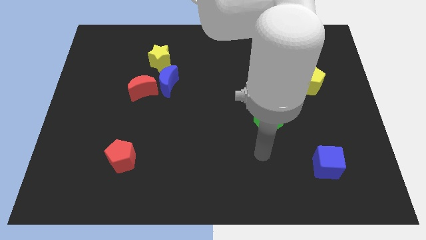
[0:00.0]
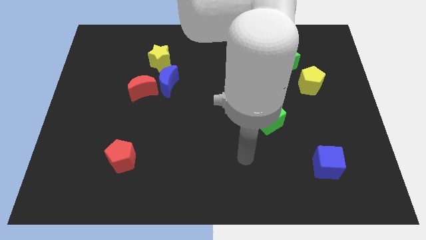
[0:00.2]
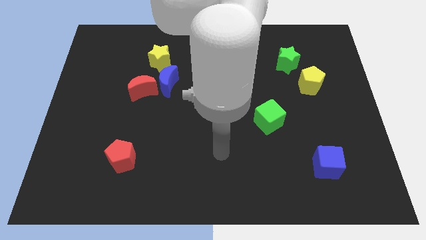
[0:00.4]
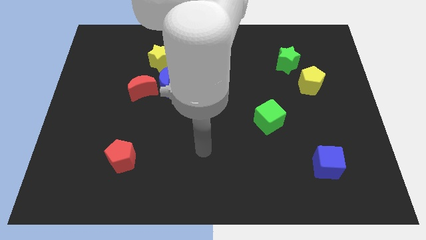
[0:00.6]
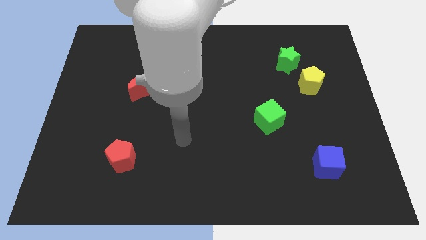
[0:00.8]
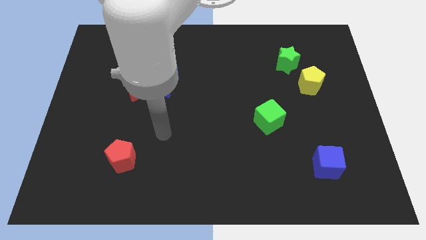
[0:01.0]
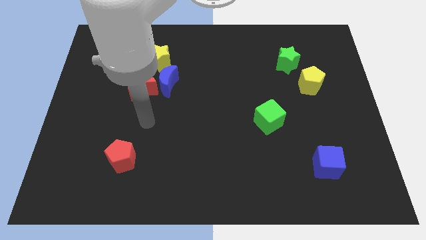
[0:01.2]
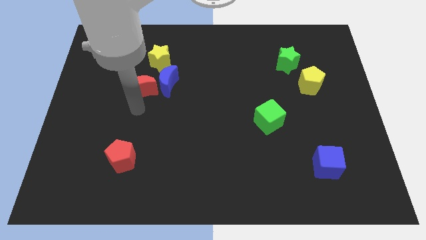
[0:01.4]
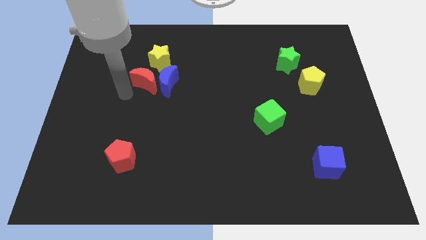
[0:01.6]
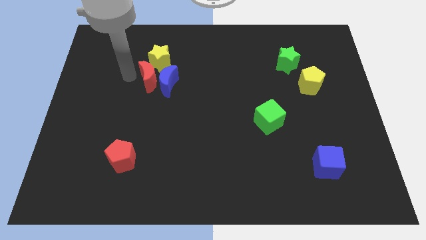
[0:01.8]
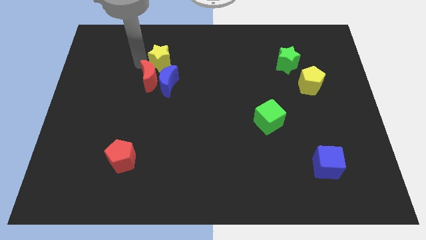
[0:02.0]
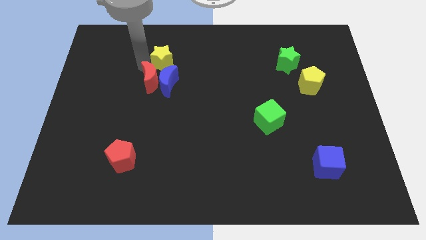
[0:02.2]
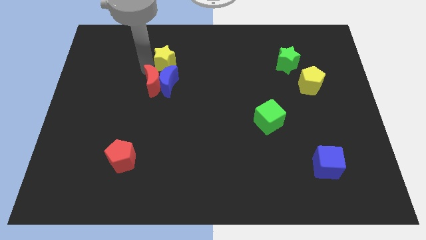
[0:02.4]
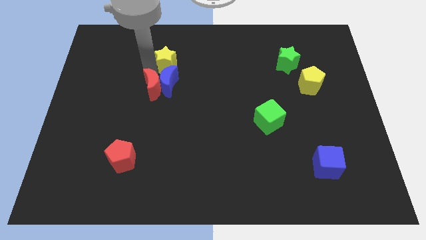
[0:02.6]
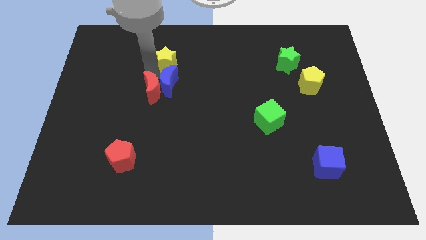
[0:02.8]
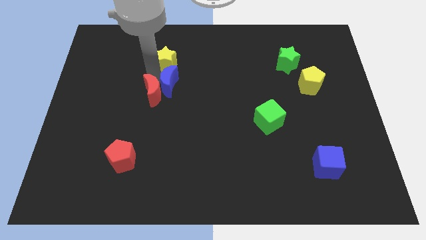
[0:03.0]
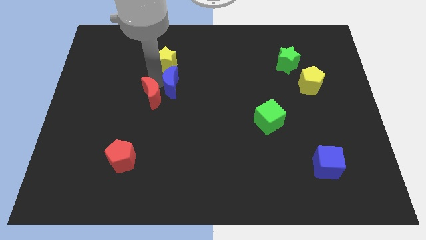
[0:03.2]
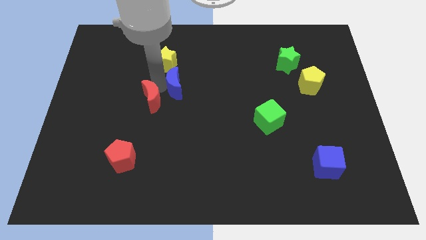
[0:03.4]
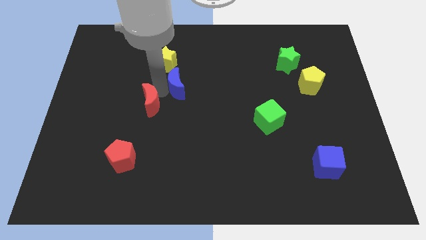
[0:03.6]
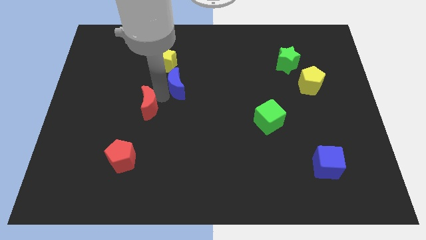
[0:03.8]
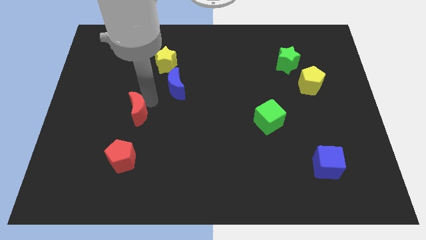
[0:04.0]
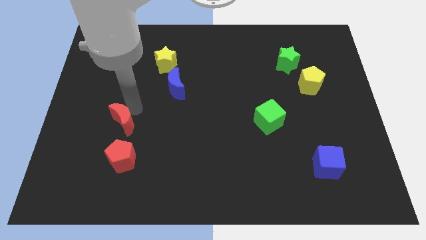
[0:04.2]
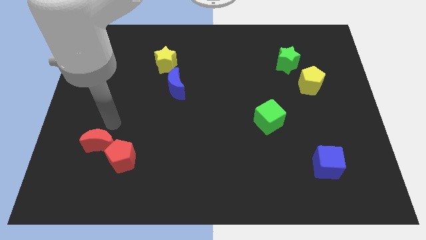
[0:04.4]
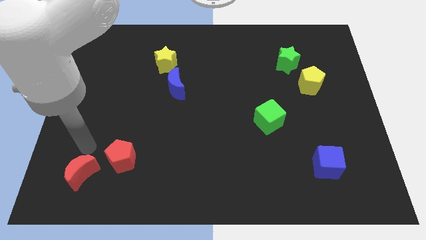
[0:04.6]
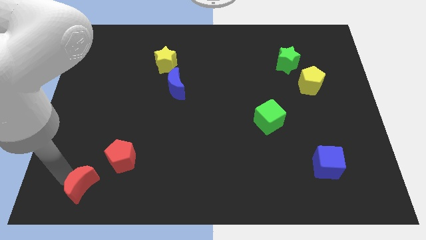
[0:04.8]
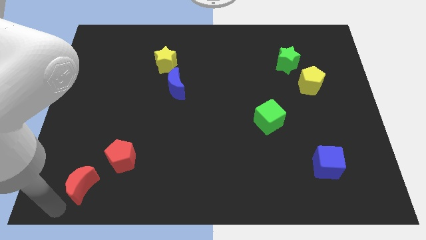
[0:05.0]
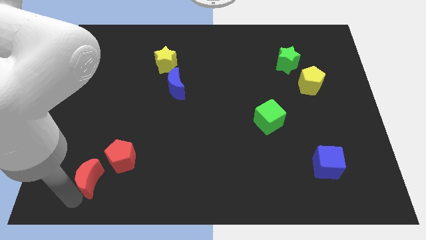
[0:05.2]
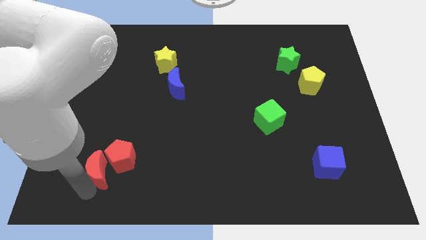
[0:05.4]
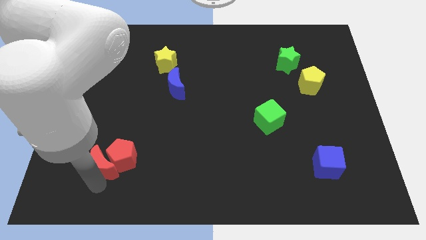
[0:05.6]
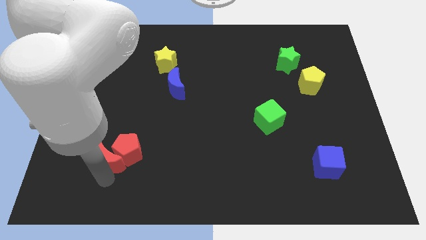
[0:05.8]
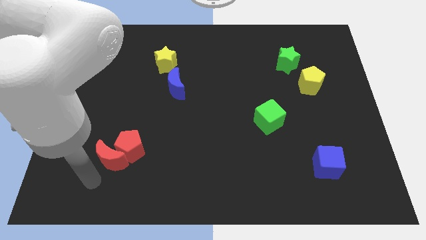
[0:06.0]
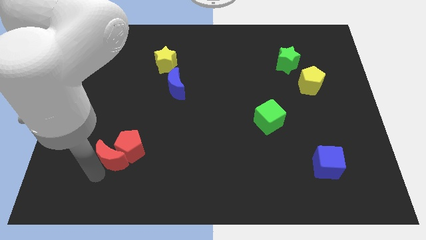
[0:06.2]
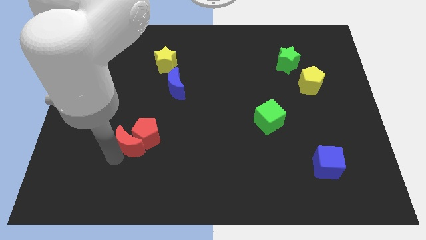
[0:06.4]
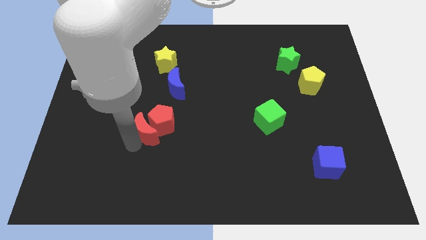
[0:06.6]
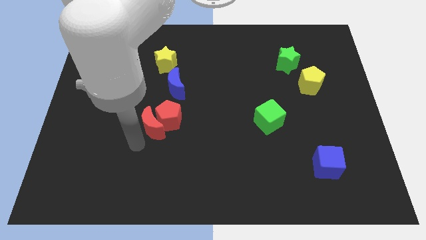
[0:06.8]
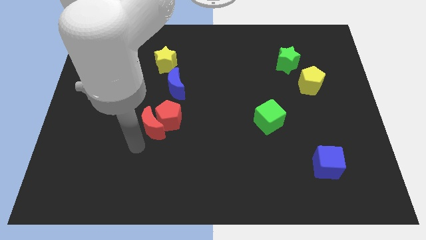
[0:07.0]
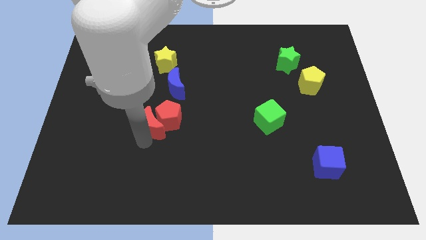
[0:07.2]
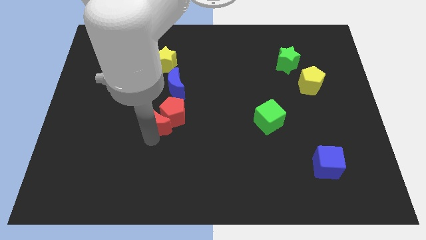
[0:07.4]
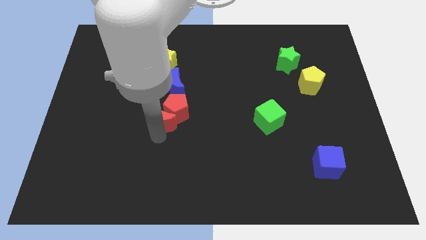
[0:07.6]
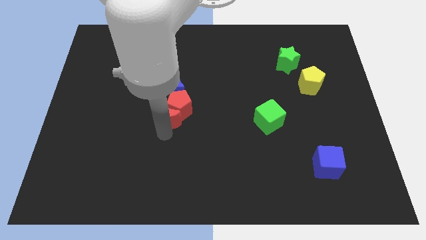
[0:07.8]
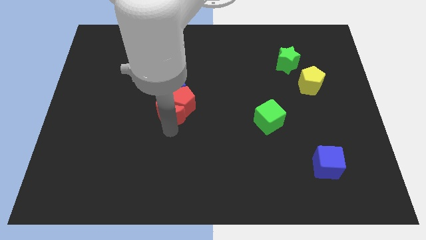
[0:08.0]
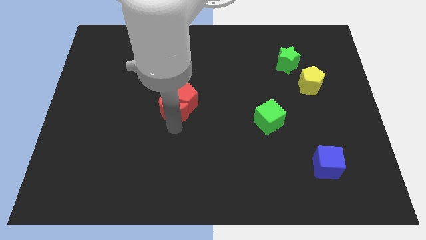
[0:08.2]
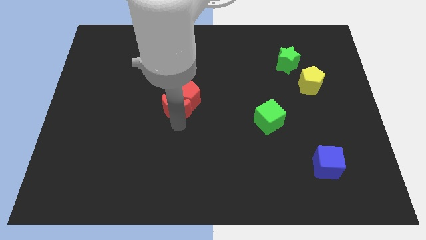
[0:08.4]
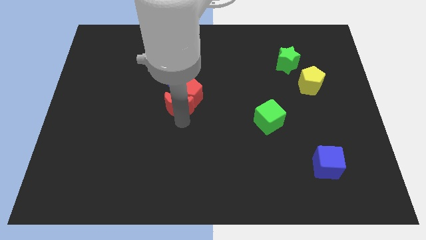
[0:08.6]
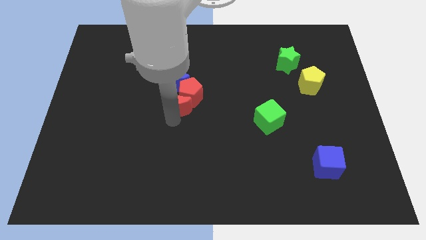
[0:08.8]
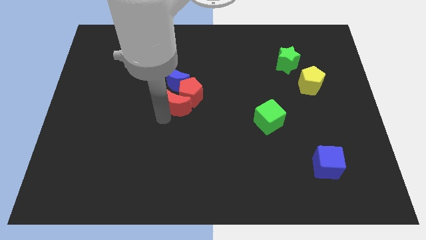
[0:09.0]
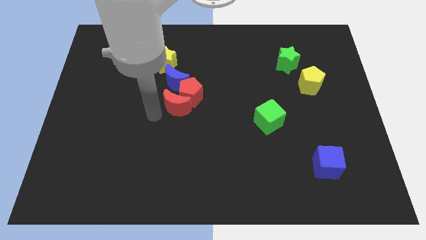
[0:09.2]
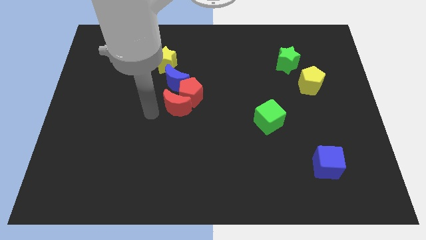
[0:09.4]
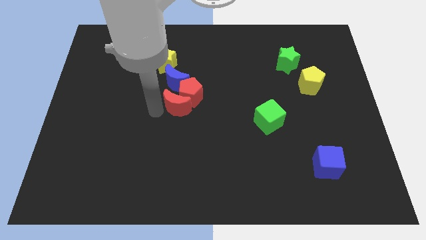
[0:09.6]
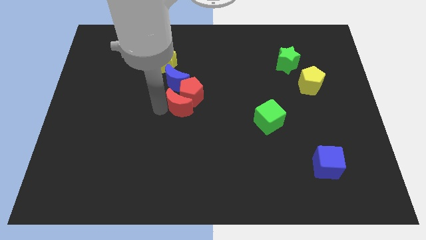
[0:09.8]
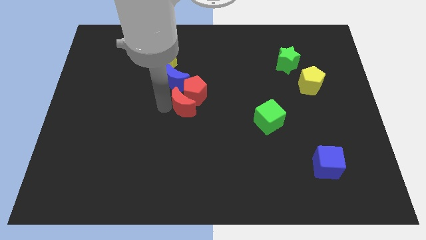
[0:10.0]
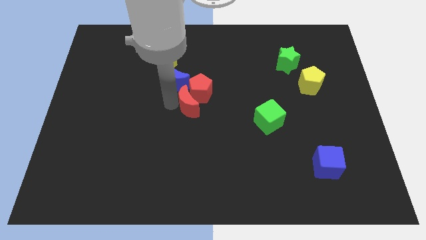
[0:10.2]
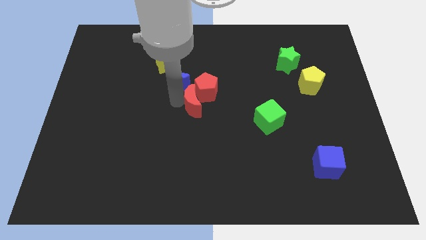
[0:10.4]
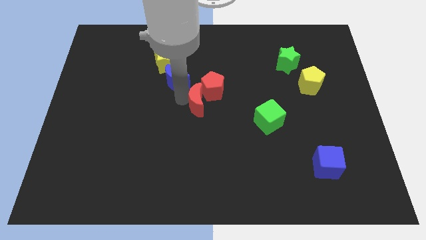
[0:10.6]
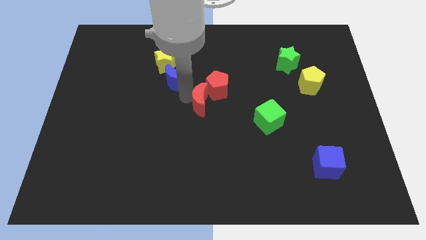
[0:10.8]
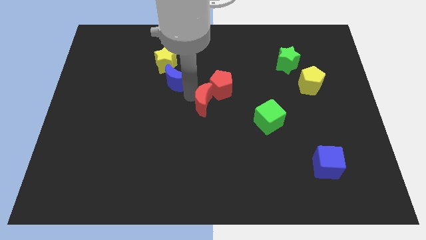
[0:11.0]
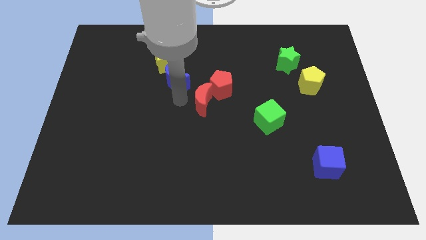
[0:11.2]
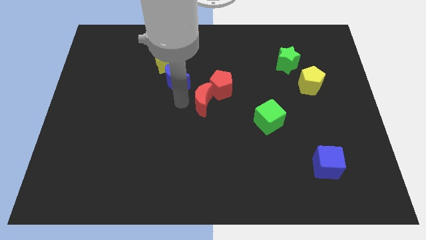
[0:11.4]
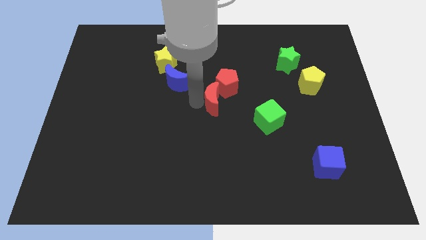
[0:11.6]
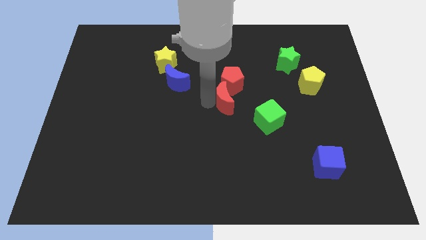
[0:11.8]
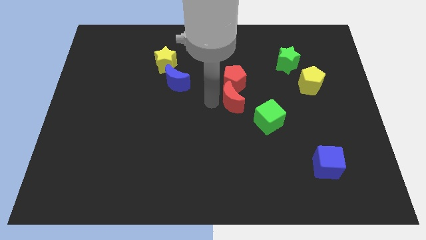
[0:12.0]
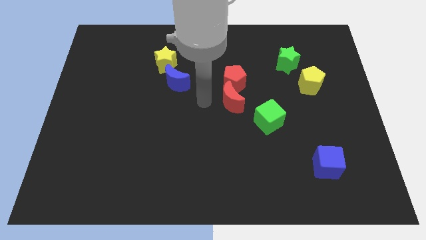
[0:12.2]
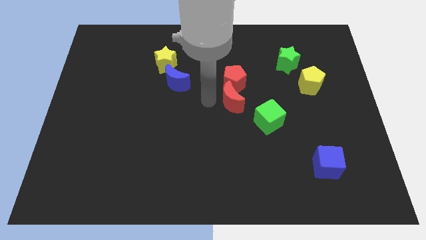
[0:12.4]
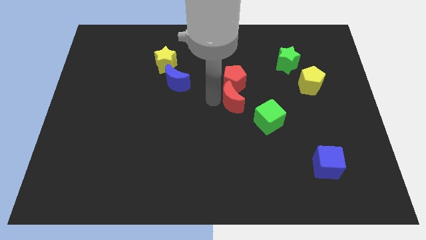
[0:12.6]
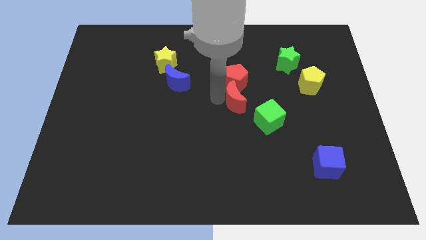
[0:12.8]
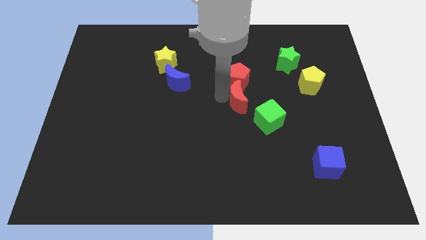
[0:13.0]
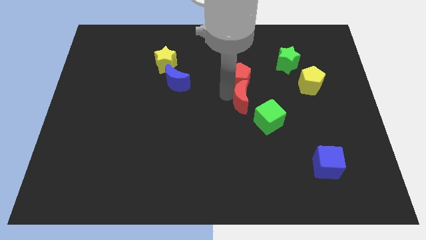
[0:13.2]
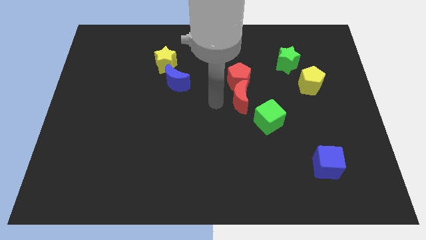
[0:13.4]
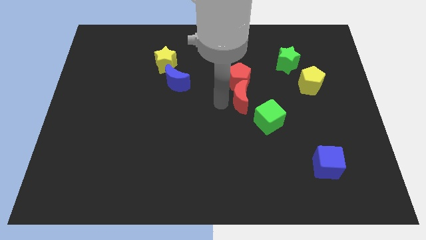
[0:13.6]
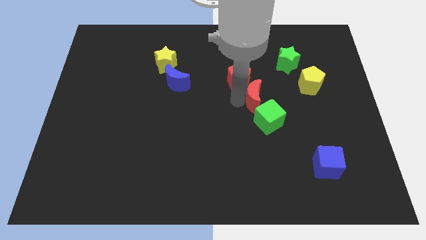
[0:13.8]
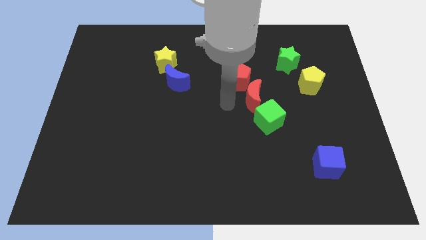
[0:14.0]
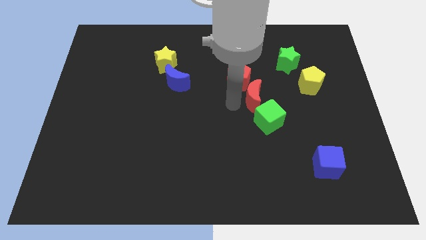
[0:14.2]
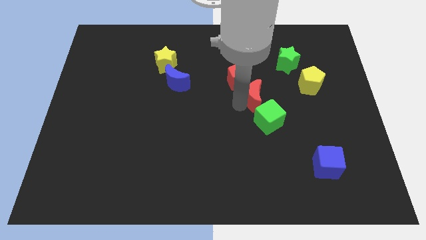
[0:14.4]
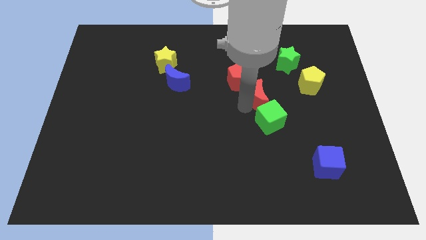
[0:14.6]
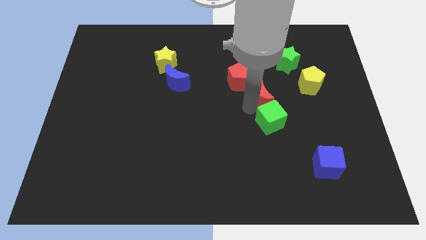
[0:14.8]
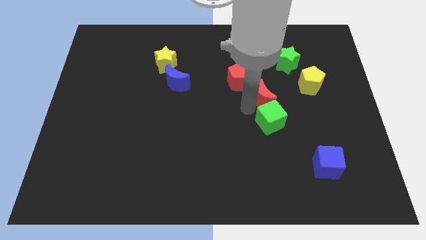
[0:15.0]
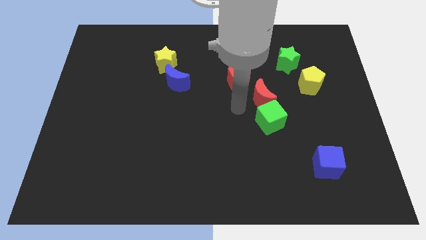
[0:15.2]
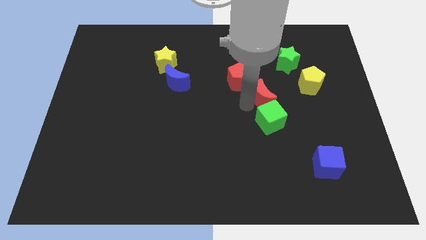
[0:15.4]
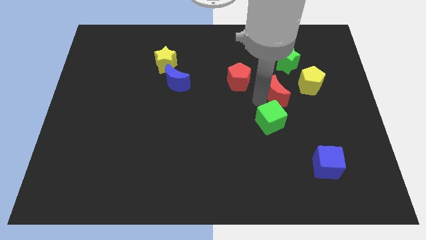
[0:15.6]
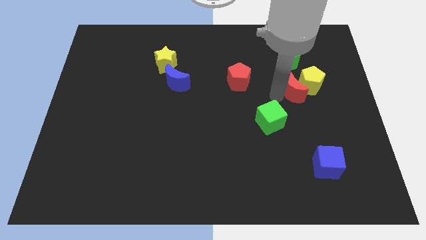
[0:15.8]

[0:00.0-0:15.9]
put the red moon next to the yellow pentagon
